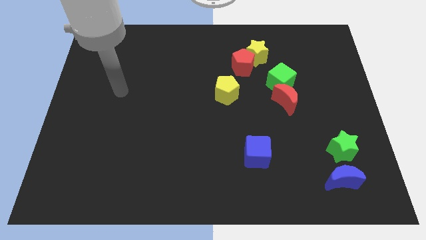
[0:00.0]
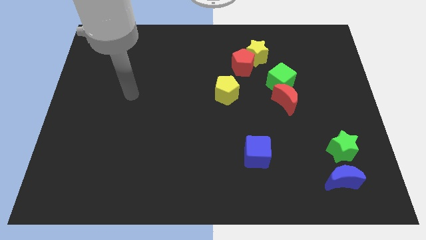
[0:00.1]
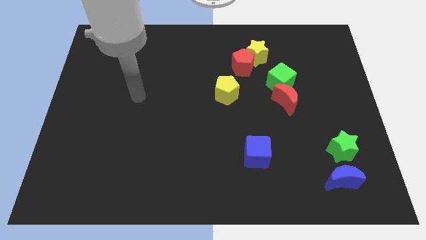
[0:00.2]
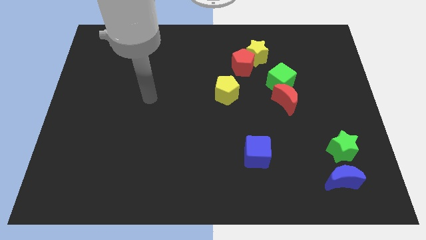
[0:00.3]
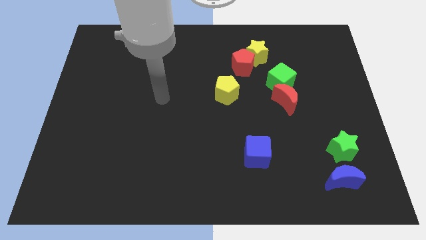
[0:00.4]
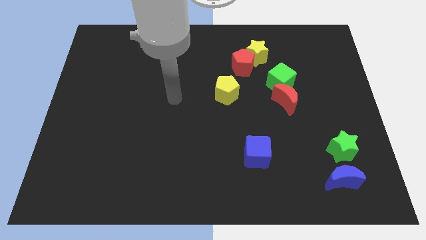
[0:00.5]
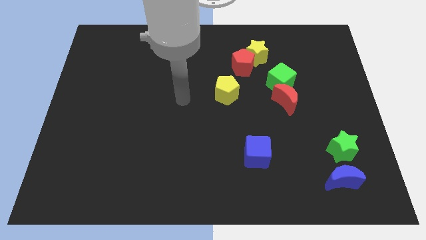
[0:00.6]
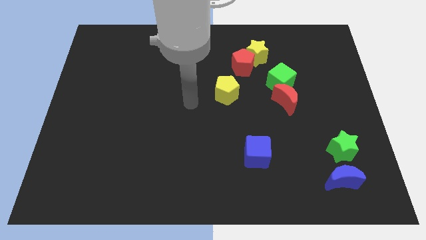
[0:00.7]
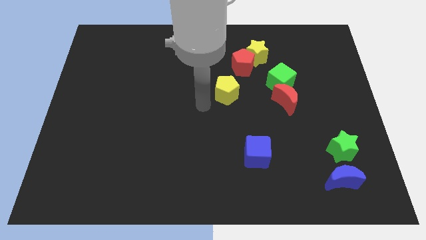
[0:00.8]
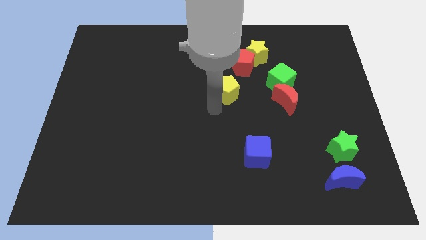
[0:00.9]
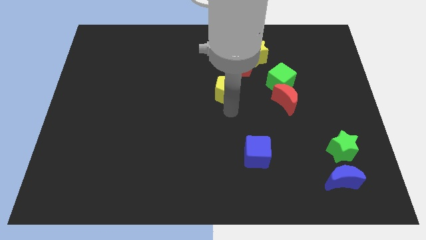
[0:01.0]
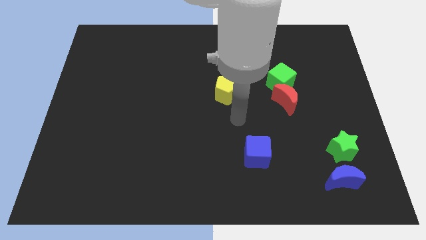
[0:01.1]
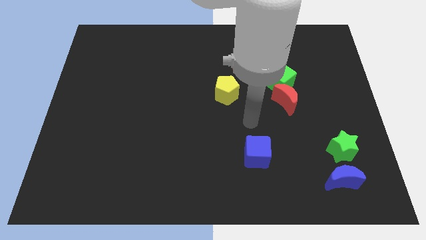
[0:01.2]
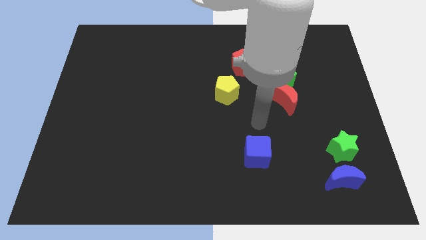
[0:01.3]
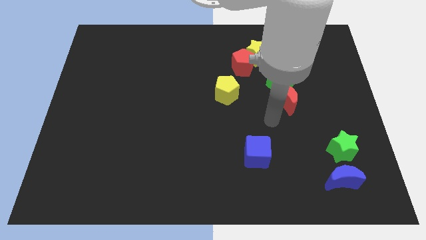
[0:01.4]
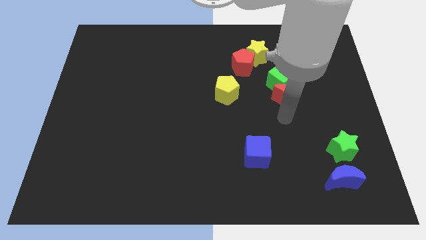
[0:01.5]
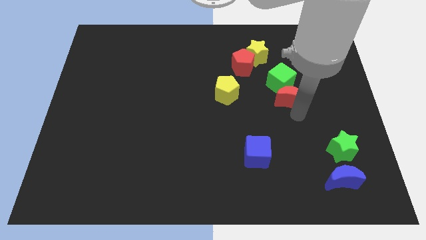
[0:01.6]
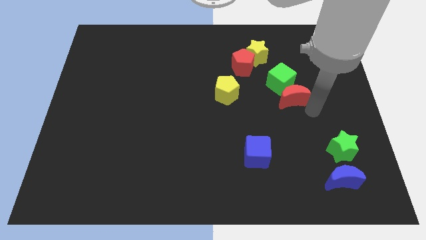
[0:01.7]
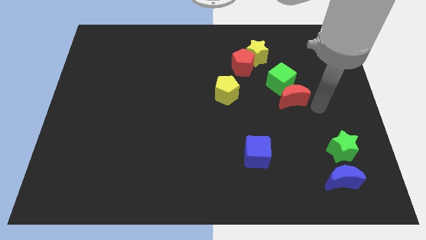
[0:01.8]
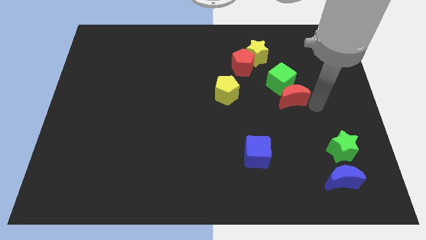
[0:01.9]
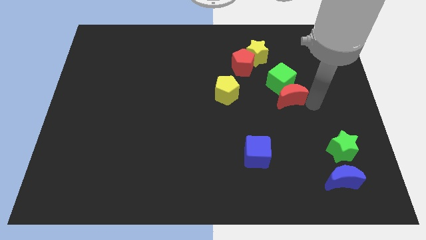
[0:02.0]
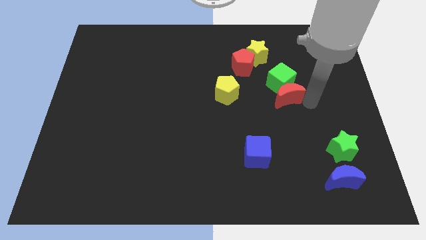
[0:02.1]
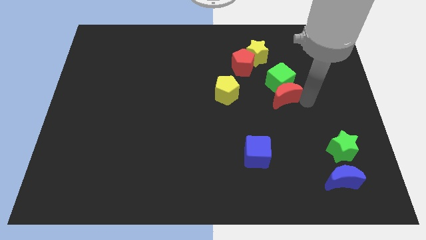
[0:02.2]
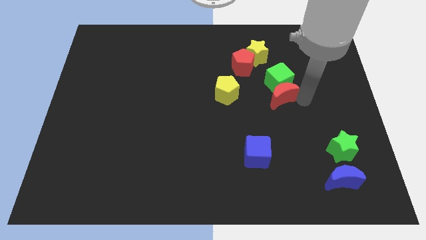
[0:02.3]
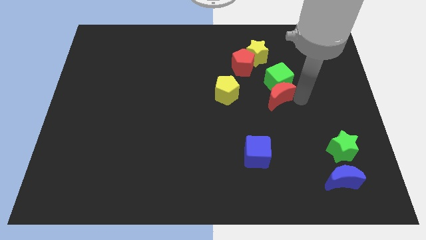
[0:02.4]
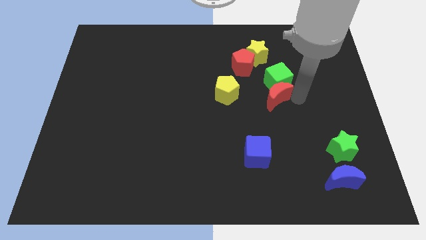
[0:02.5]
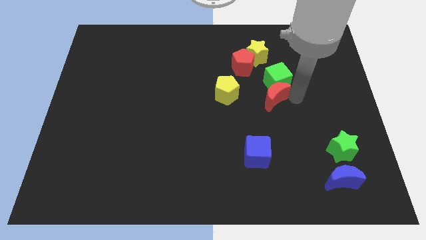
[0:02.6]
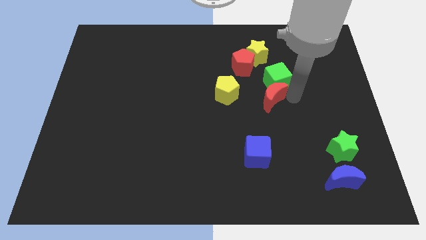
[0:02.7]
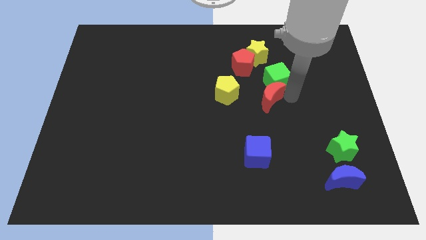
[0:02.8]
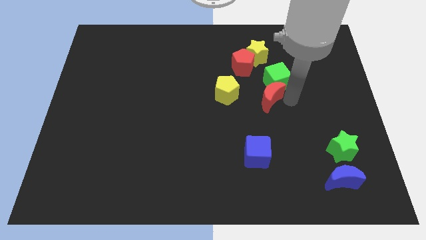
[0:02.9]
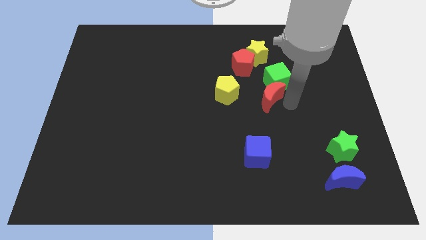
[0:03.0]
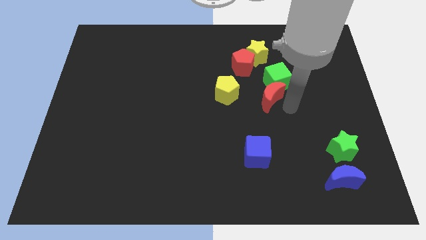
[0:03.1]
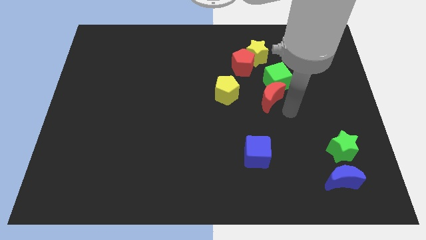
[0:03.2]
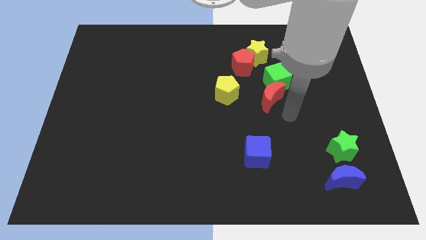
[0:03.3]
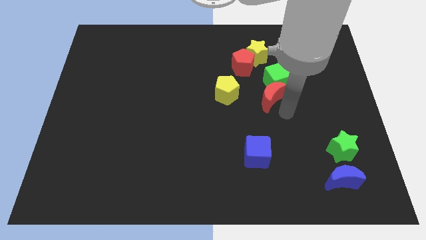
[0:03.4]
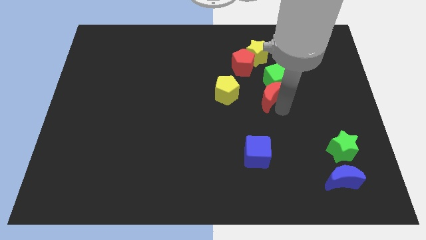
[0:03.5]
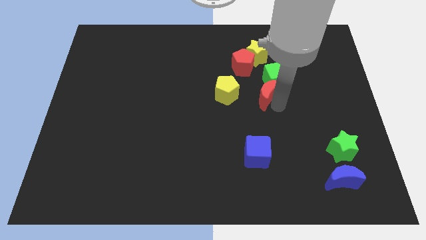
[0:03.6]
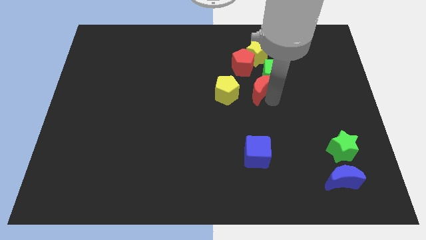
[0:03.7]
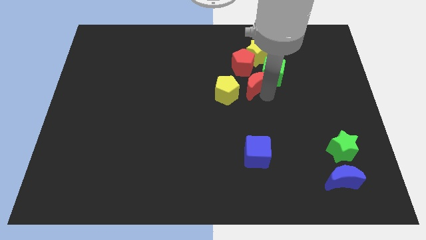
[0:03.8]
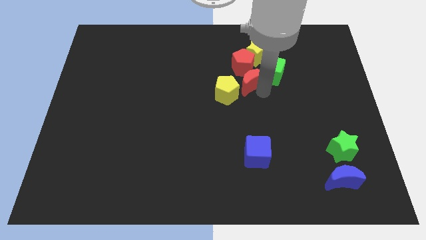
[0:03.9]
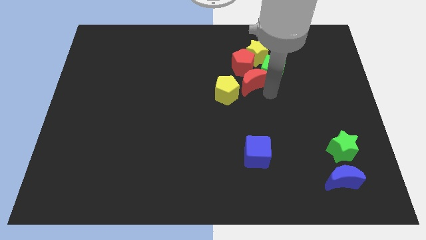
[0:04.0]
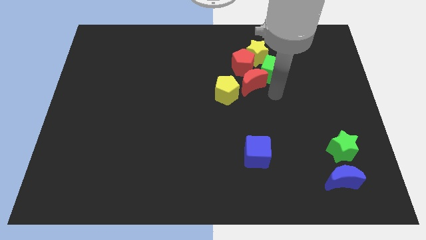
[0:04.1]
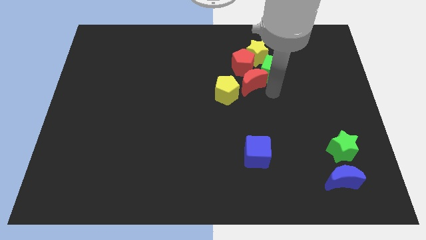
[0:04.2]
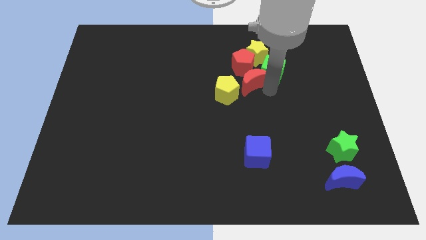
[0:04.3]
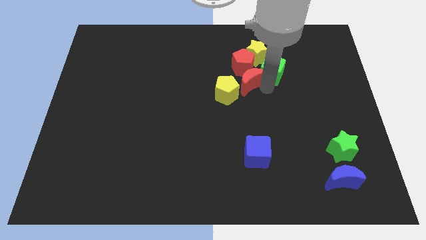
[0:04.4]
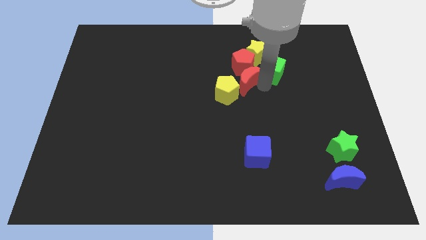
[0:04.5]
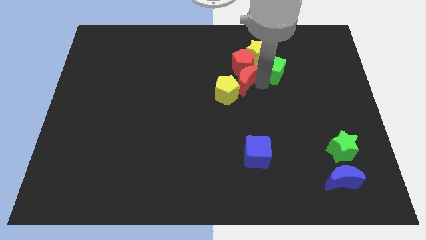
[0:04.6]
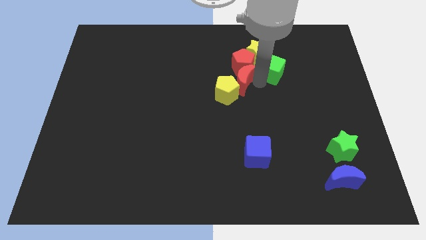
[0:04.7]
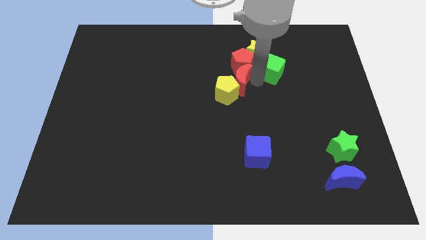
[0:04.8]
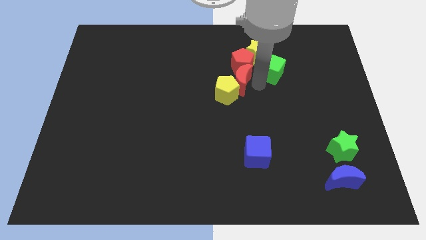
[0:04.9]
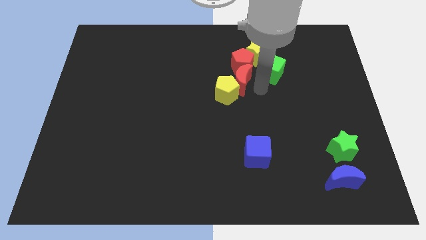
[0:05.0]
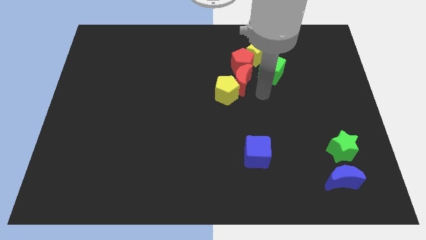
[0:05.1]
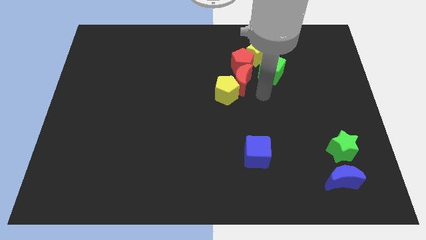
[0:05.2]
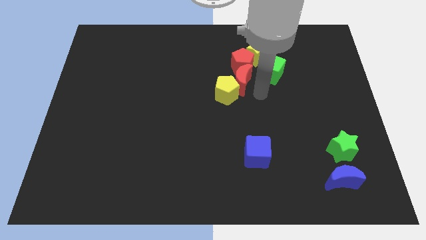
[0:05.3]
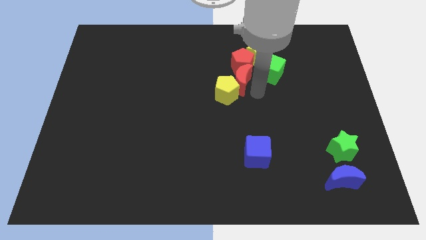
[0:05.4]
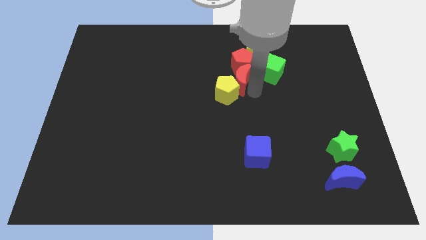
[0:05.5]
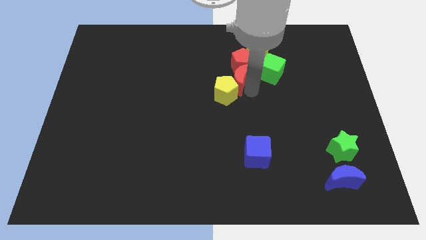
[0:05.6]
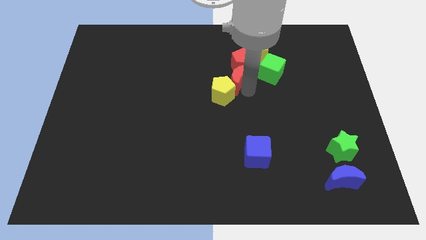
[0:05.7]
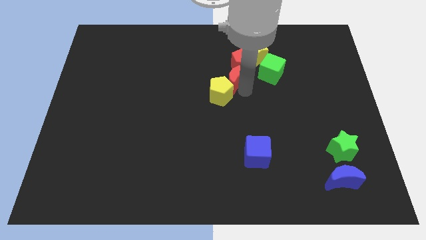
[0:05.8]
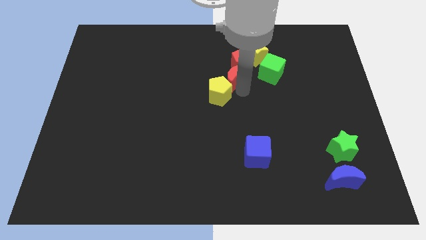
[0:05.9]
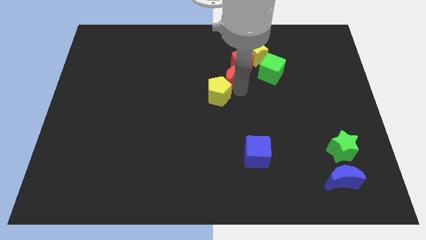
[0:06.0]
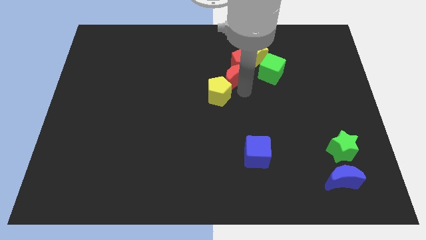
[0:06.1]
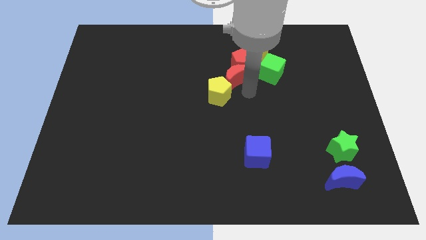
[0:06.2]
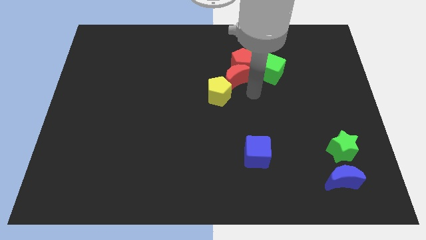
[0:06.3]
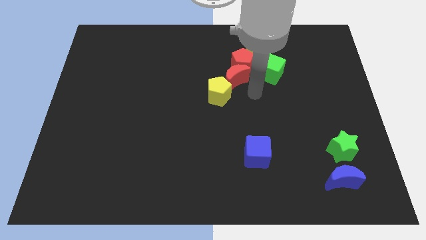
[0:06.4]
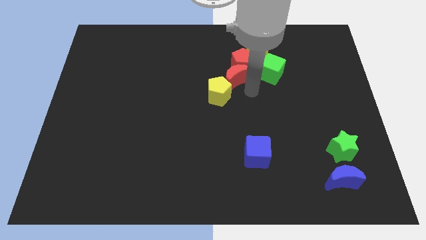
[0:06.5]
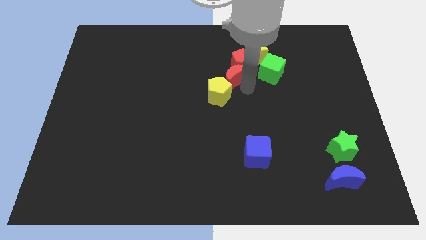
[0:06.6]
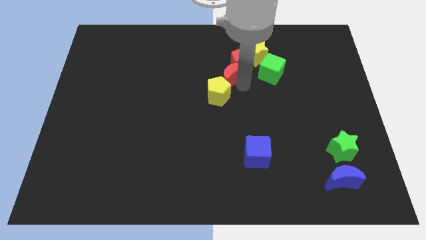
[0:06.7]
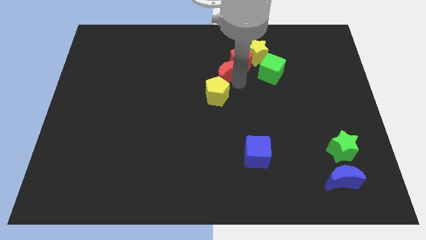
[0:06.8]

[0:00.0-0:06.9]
push the red moon to the left side of the red pentagon
